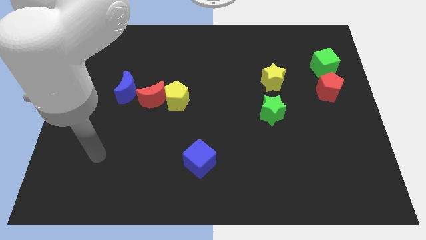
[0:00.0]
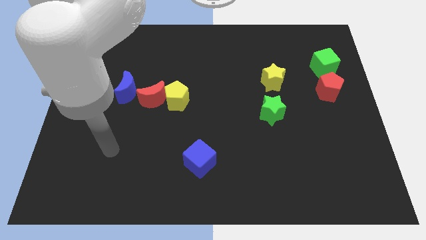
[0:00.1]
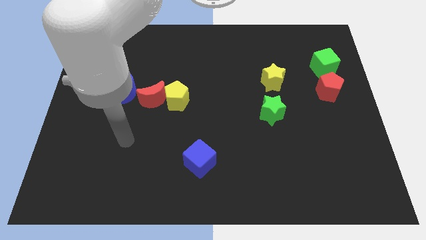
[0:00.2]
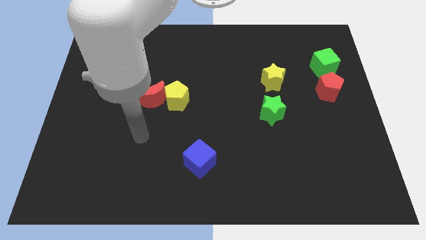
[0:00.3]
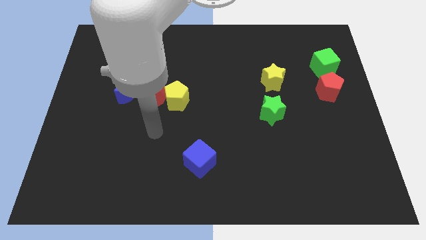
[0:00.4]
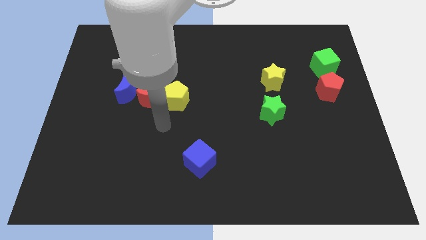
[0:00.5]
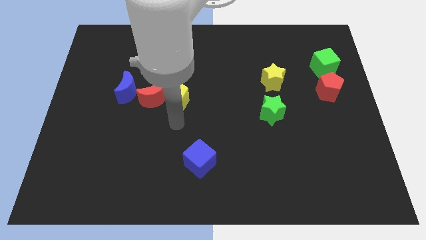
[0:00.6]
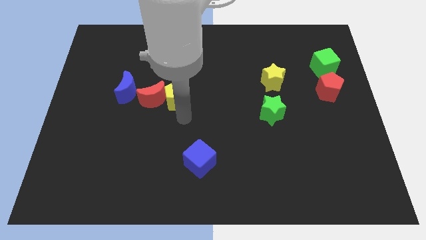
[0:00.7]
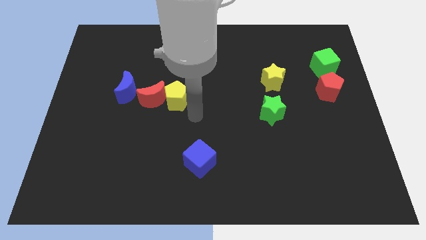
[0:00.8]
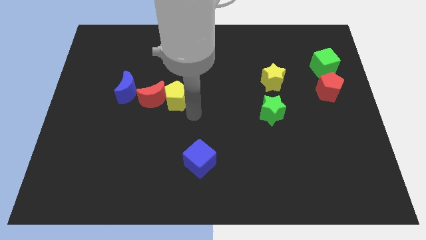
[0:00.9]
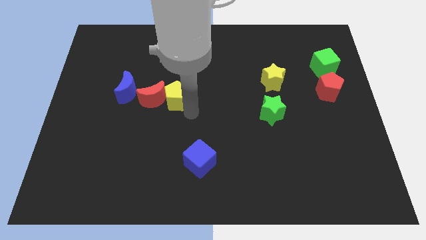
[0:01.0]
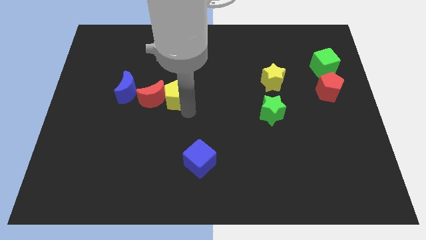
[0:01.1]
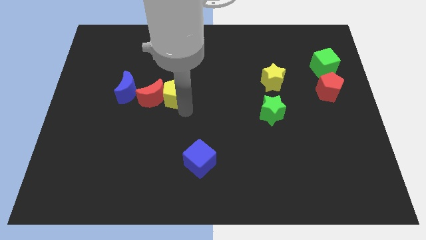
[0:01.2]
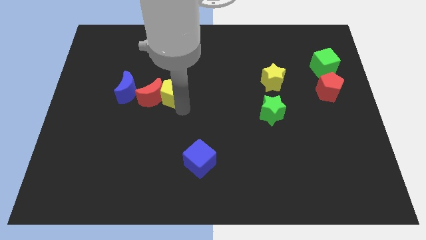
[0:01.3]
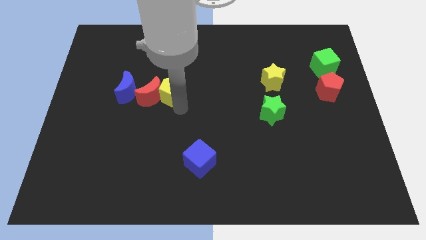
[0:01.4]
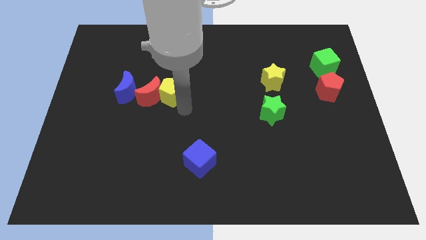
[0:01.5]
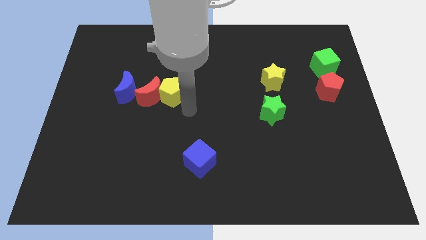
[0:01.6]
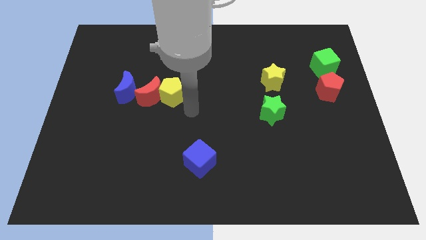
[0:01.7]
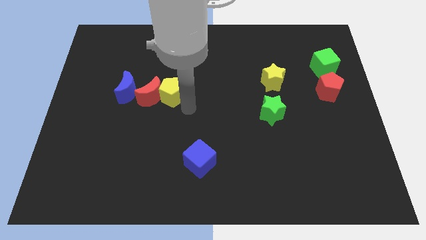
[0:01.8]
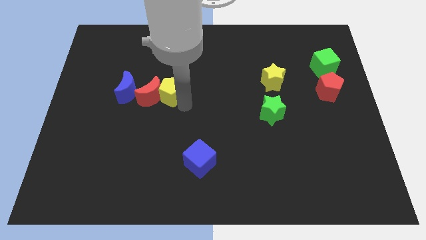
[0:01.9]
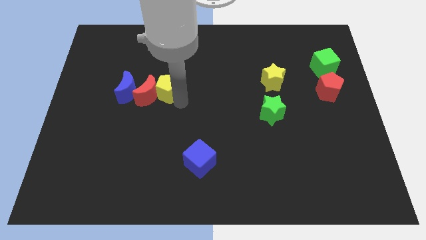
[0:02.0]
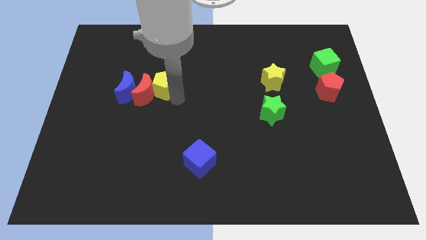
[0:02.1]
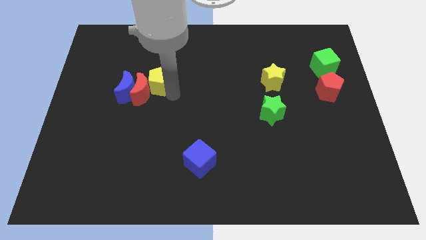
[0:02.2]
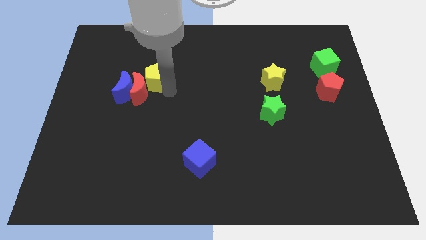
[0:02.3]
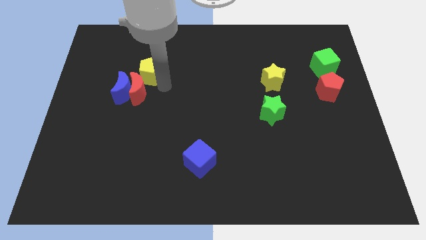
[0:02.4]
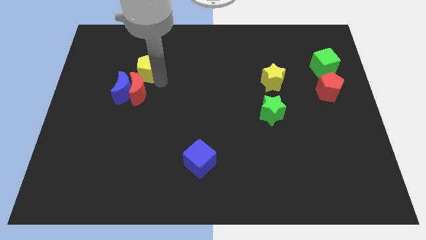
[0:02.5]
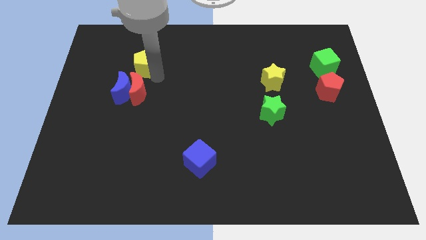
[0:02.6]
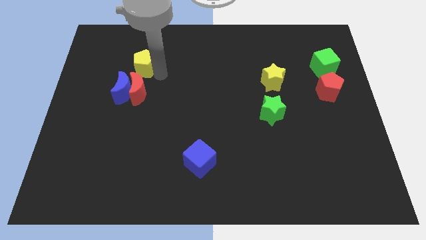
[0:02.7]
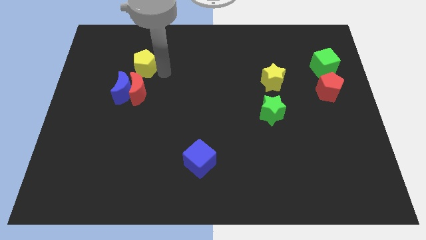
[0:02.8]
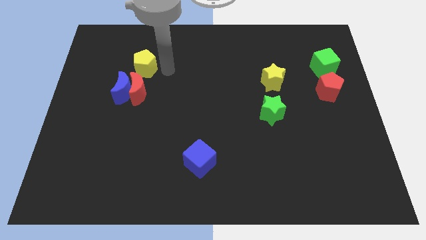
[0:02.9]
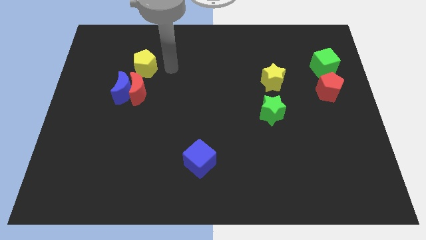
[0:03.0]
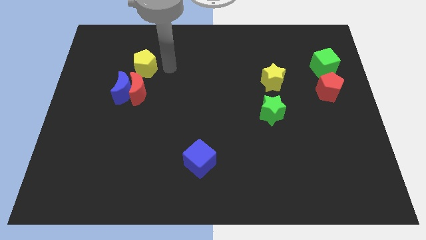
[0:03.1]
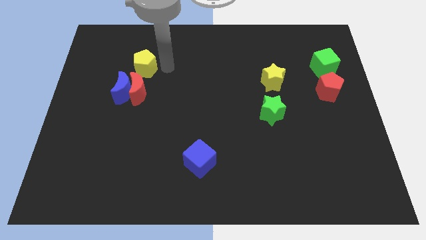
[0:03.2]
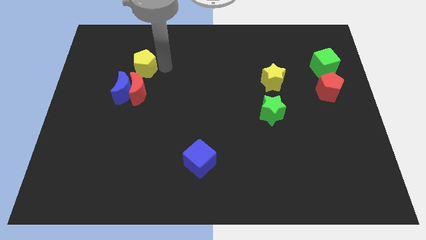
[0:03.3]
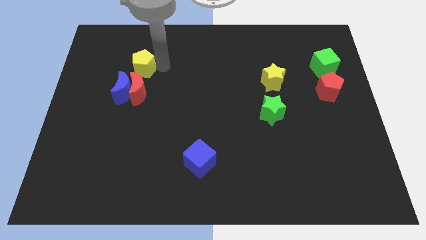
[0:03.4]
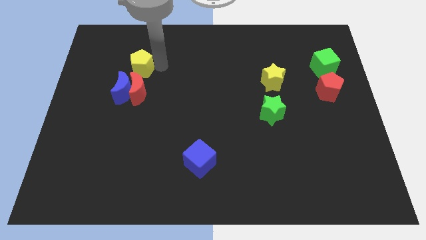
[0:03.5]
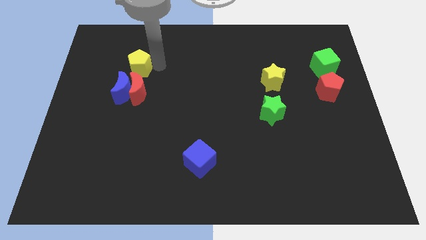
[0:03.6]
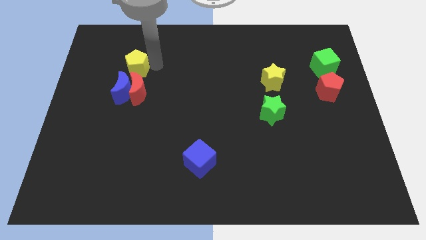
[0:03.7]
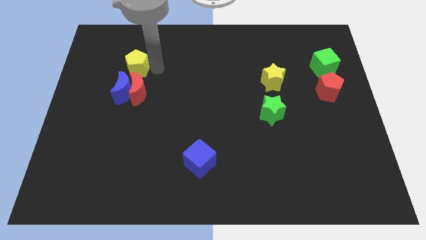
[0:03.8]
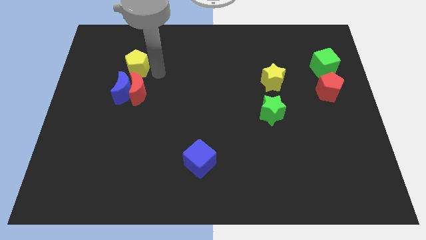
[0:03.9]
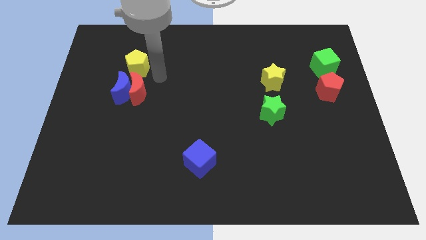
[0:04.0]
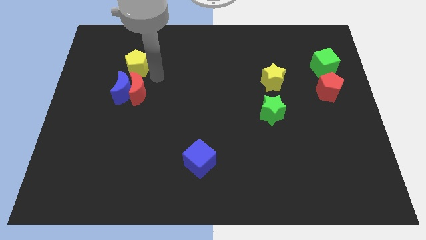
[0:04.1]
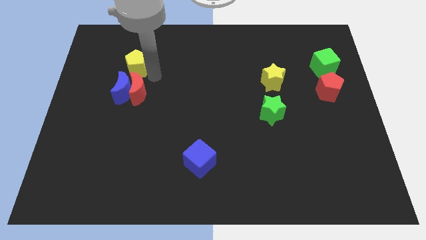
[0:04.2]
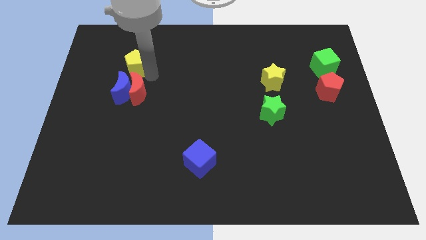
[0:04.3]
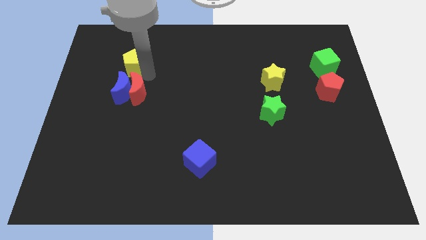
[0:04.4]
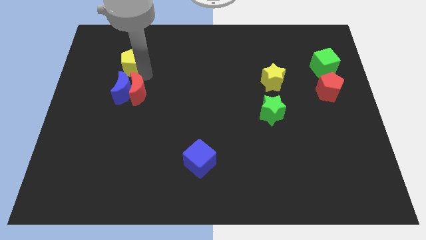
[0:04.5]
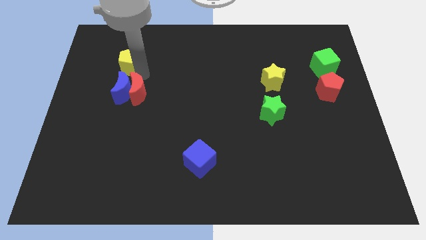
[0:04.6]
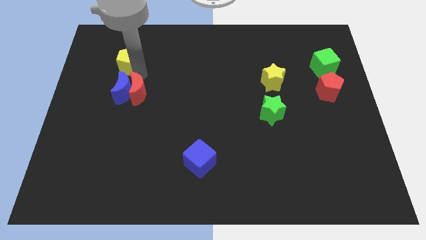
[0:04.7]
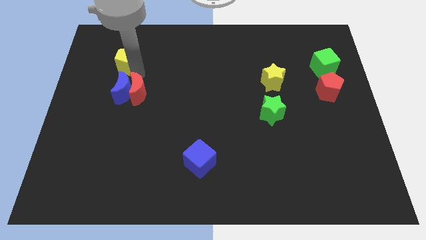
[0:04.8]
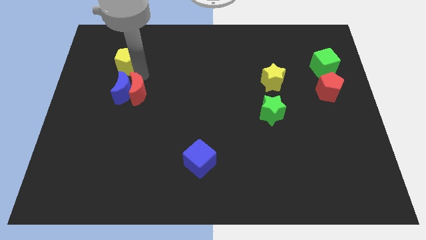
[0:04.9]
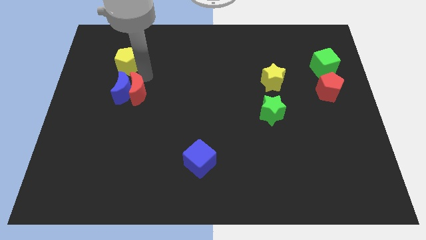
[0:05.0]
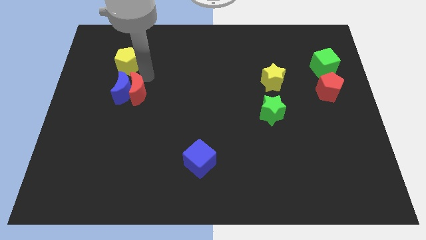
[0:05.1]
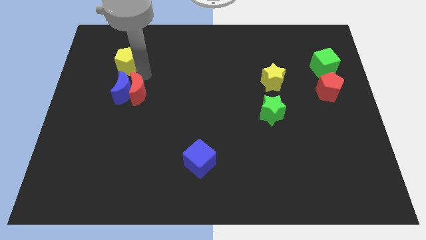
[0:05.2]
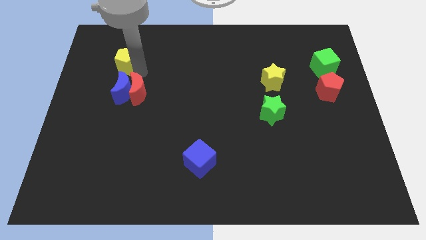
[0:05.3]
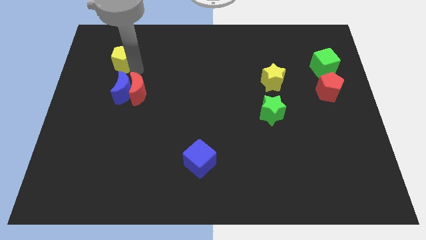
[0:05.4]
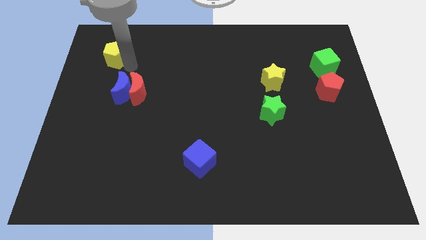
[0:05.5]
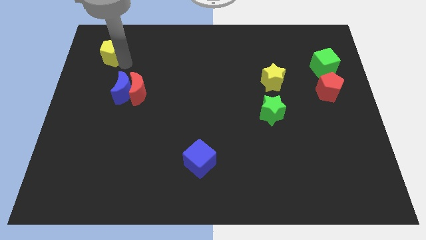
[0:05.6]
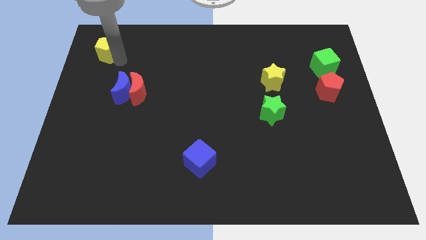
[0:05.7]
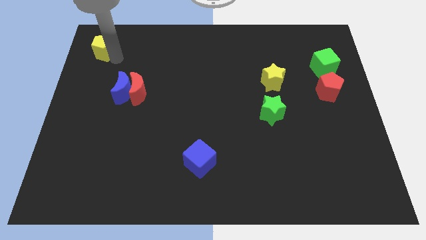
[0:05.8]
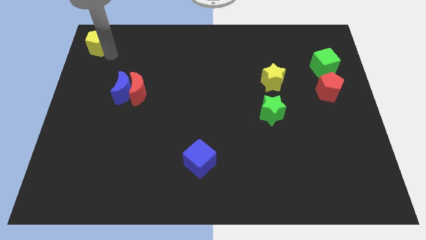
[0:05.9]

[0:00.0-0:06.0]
slide the yellow pentagon to the top left corner

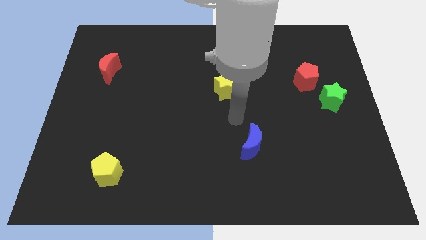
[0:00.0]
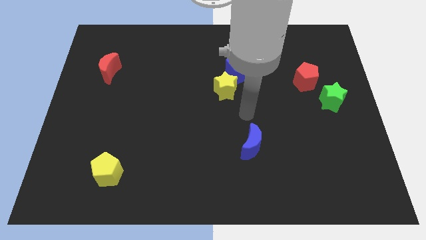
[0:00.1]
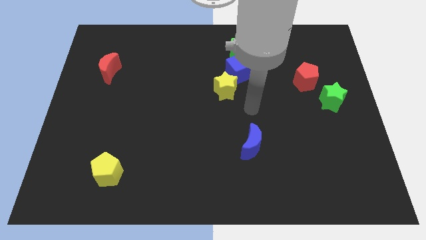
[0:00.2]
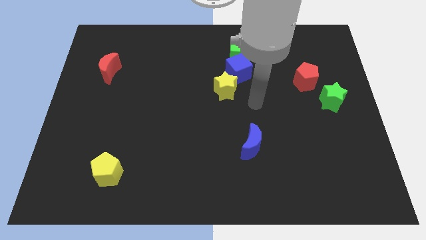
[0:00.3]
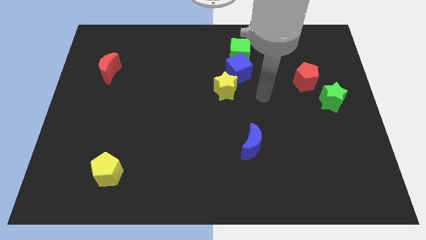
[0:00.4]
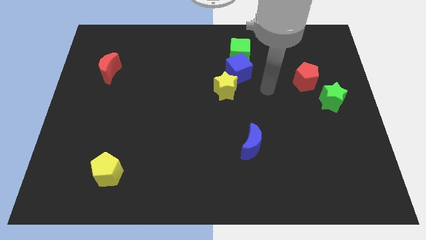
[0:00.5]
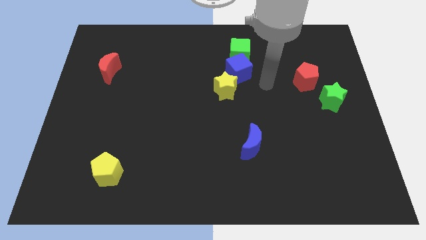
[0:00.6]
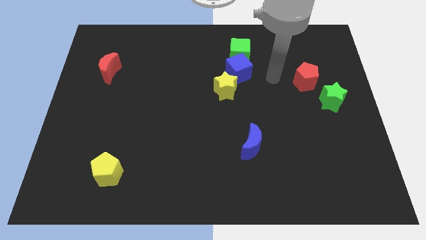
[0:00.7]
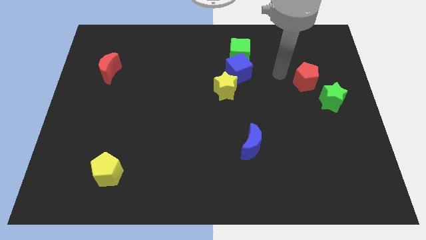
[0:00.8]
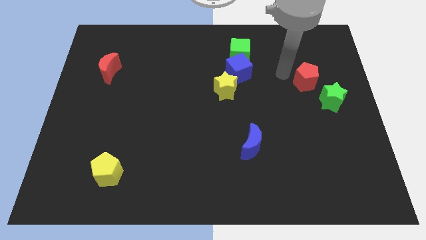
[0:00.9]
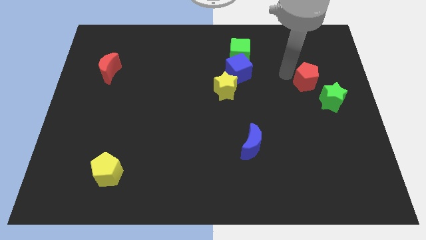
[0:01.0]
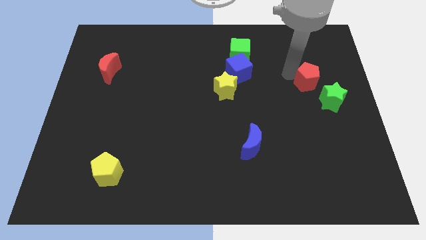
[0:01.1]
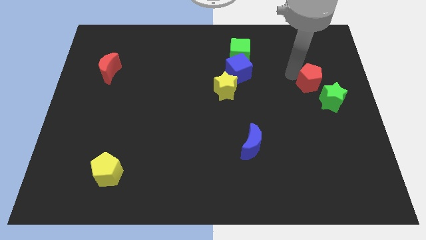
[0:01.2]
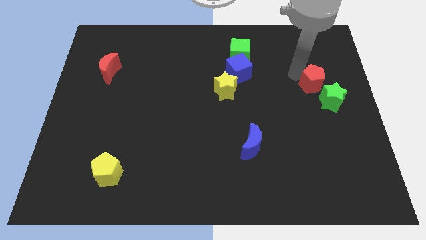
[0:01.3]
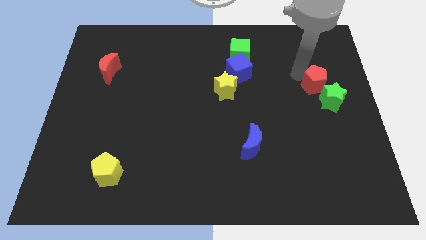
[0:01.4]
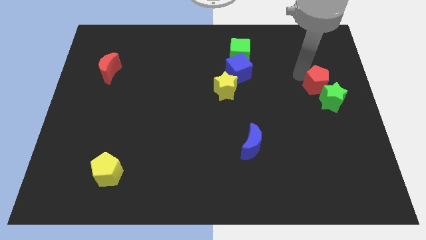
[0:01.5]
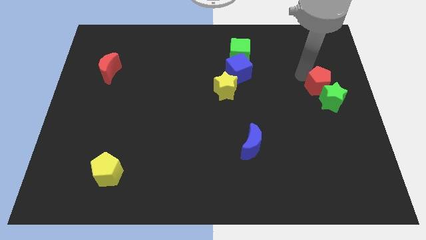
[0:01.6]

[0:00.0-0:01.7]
push the red pentagon to the right side of the board
